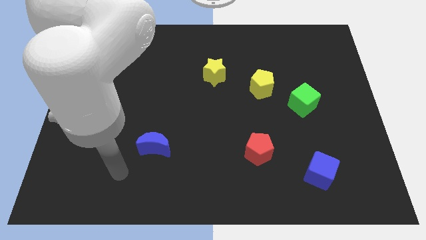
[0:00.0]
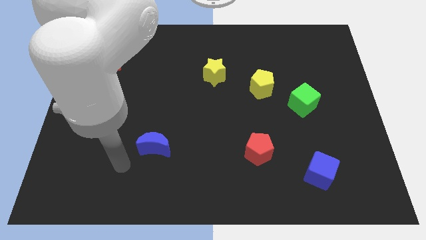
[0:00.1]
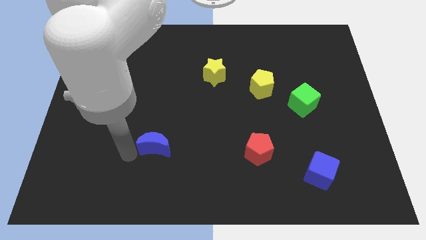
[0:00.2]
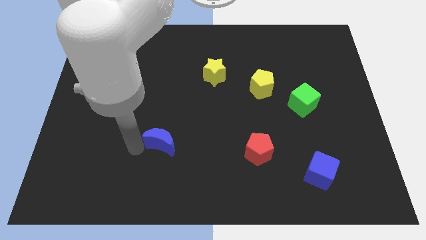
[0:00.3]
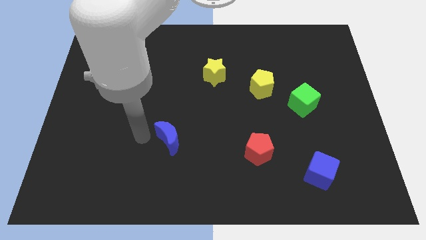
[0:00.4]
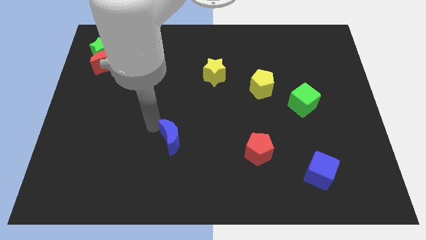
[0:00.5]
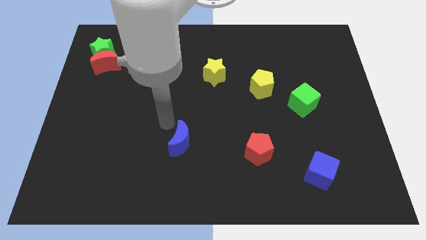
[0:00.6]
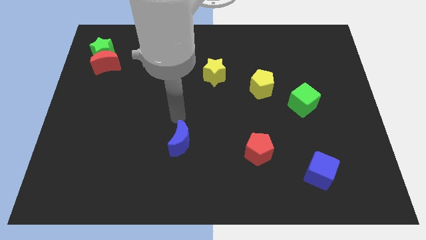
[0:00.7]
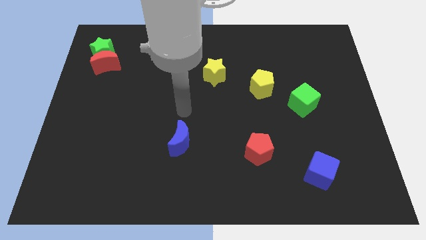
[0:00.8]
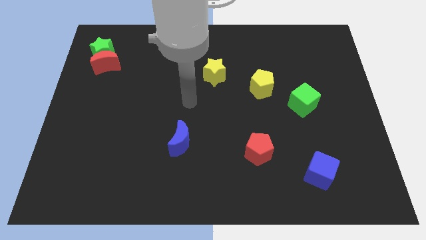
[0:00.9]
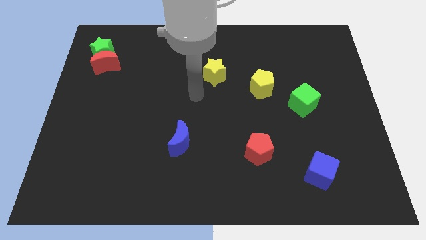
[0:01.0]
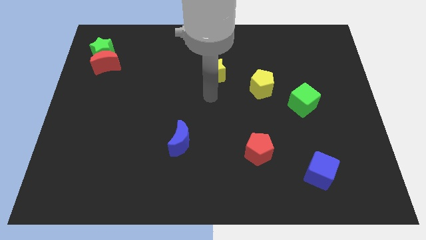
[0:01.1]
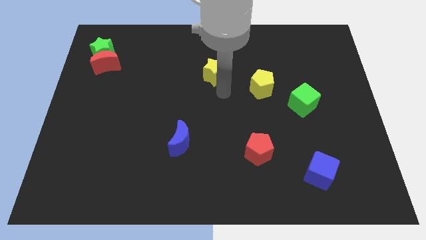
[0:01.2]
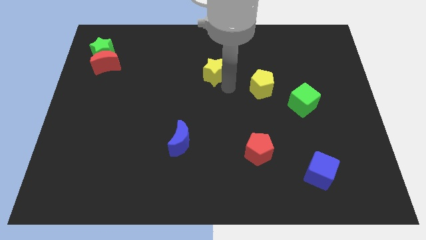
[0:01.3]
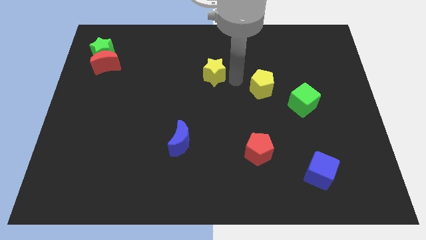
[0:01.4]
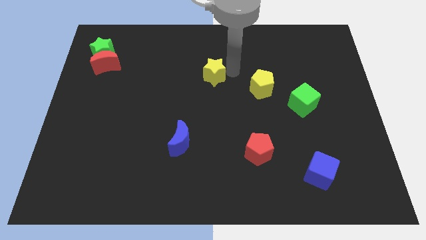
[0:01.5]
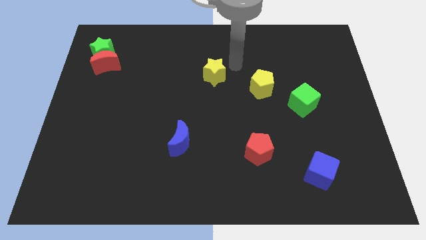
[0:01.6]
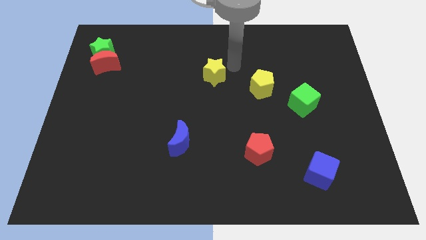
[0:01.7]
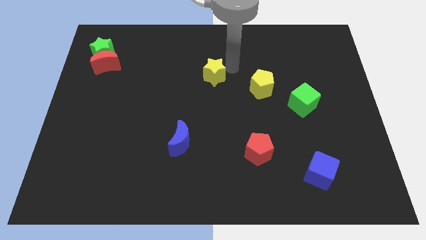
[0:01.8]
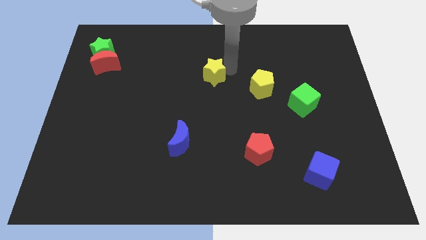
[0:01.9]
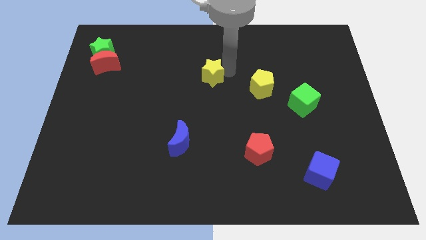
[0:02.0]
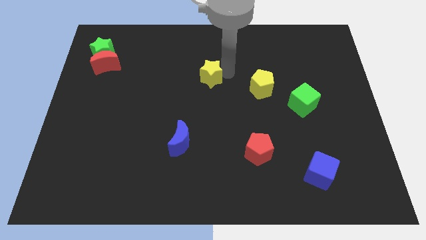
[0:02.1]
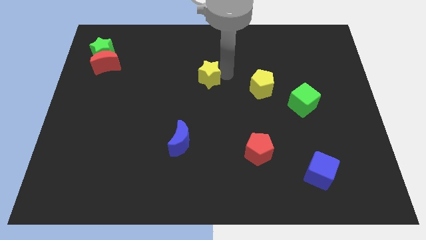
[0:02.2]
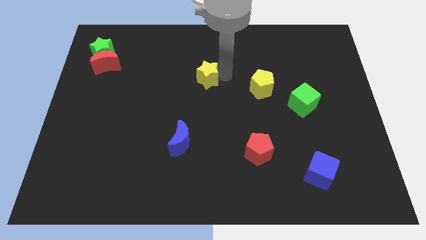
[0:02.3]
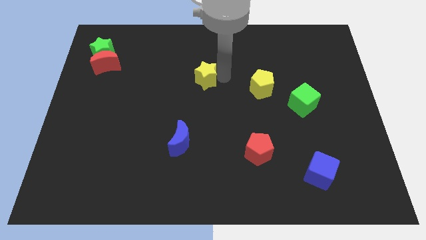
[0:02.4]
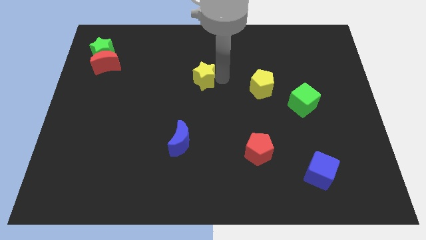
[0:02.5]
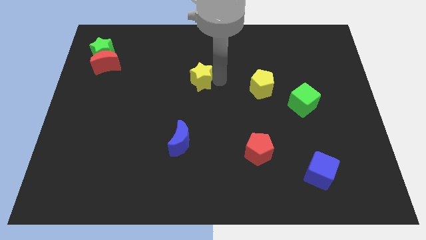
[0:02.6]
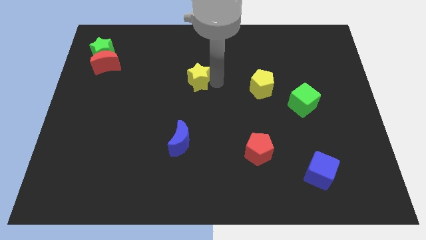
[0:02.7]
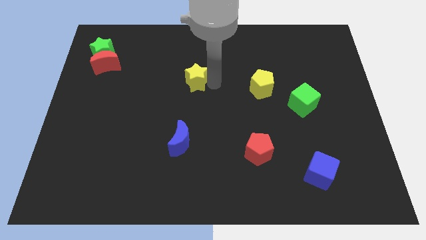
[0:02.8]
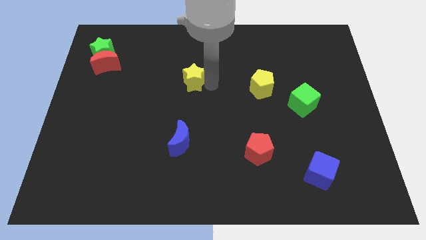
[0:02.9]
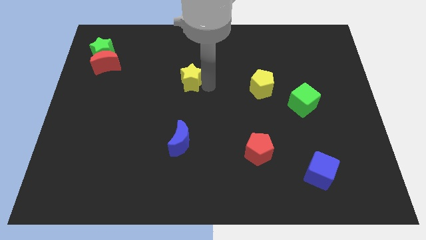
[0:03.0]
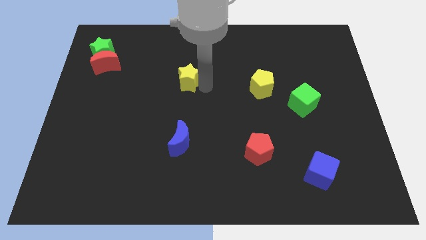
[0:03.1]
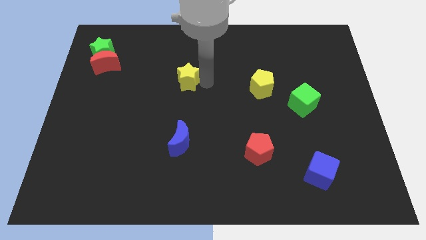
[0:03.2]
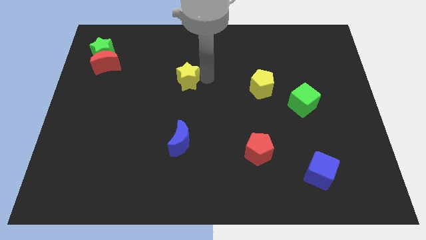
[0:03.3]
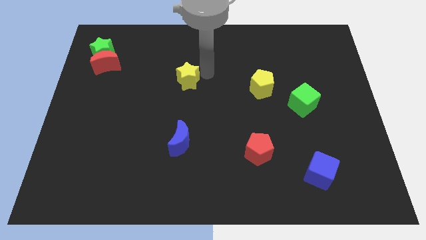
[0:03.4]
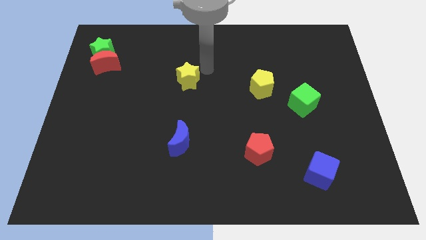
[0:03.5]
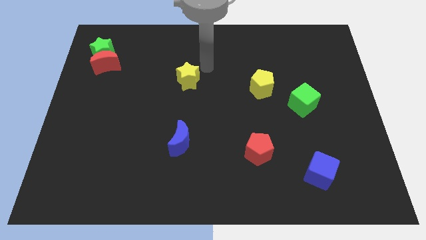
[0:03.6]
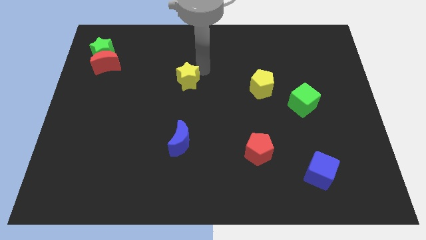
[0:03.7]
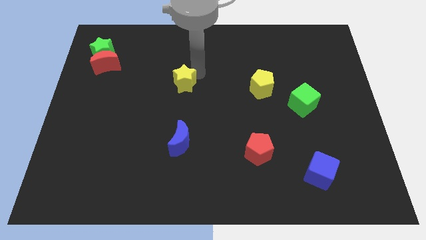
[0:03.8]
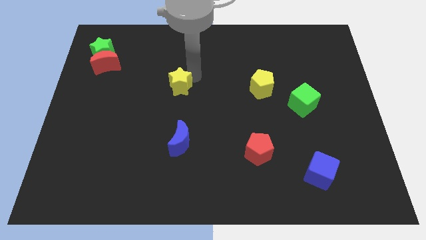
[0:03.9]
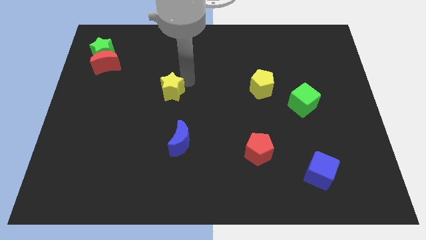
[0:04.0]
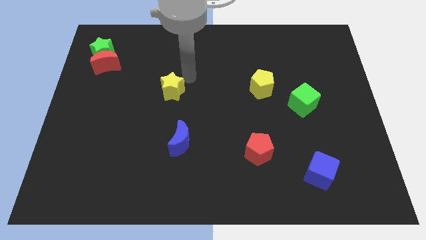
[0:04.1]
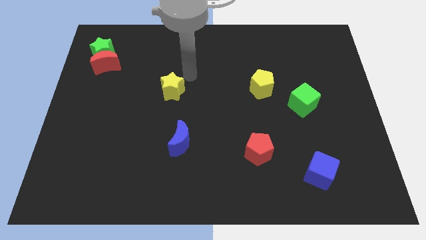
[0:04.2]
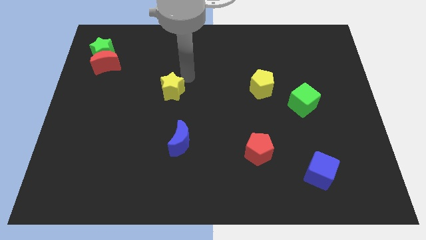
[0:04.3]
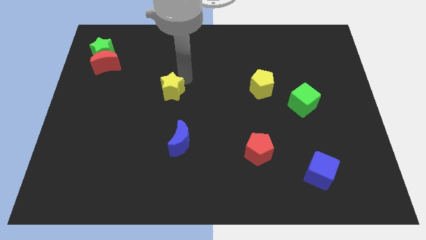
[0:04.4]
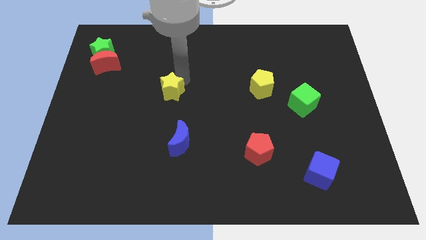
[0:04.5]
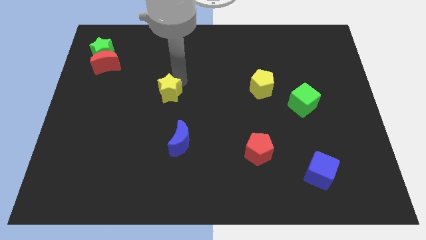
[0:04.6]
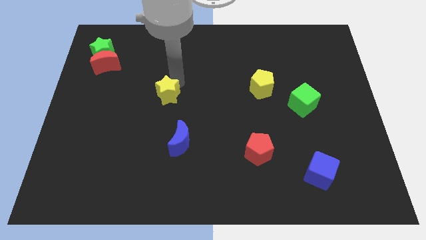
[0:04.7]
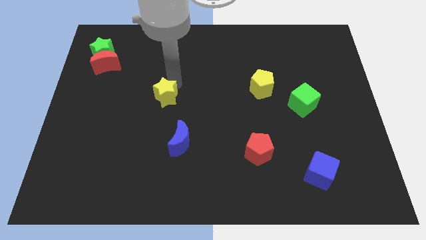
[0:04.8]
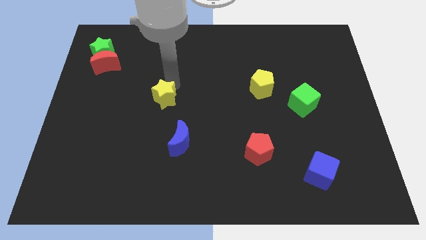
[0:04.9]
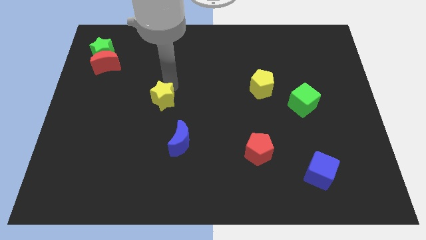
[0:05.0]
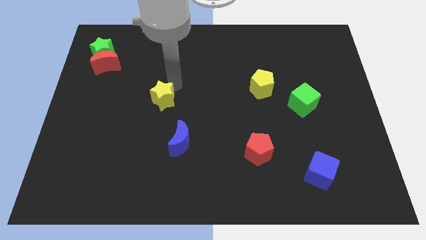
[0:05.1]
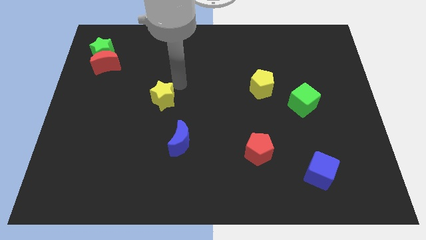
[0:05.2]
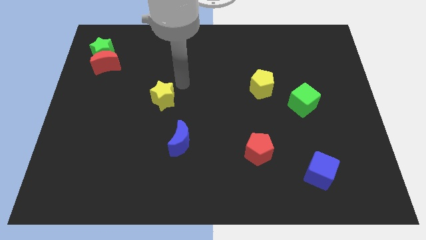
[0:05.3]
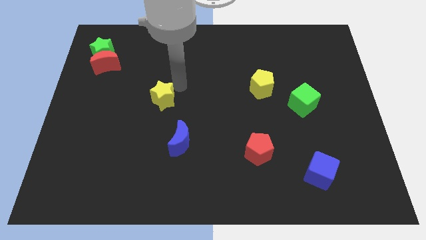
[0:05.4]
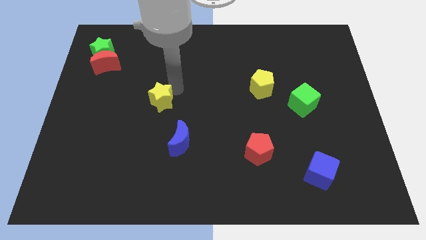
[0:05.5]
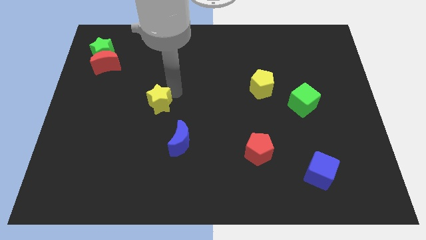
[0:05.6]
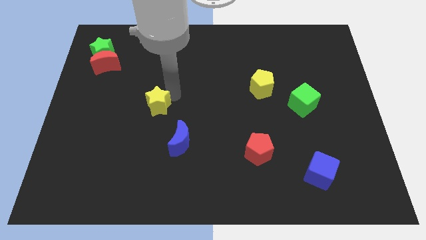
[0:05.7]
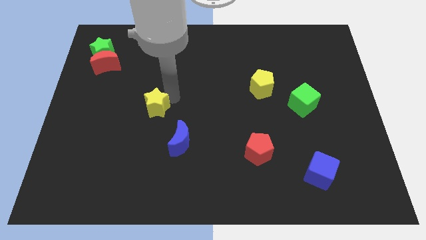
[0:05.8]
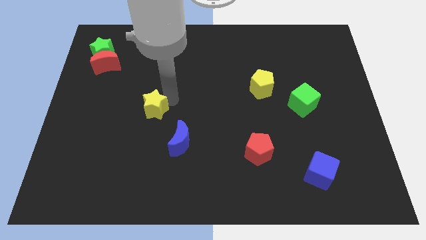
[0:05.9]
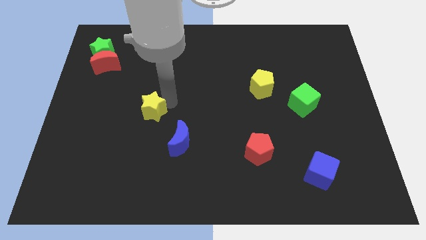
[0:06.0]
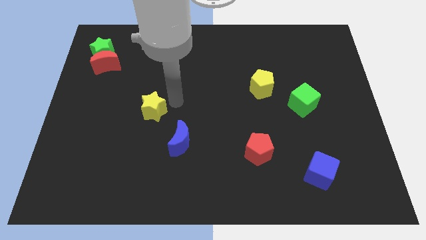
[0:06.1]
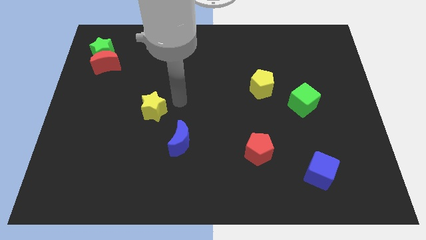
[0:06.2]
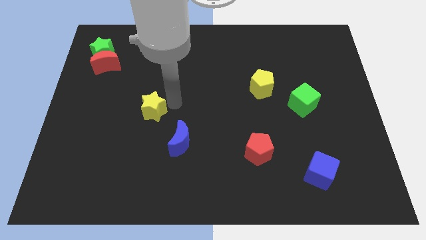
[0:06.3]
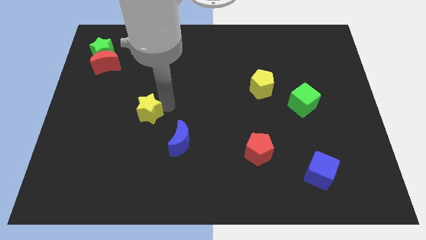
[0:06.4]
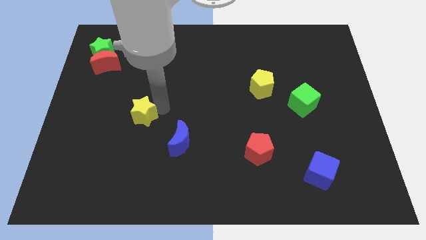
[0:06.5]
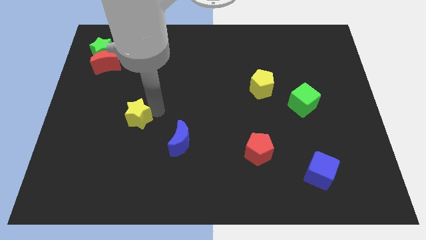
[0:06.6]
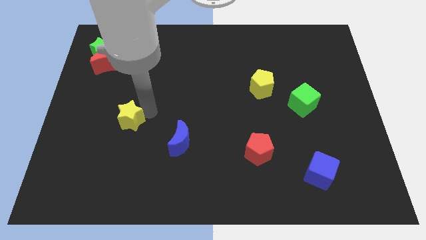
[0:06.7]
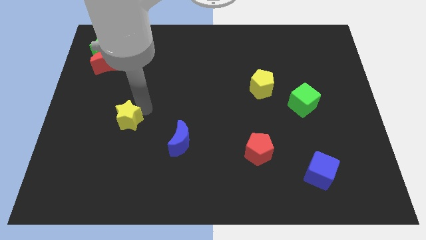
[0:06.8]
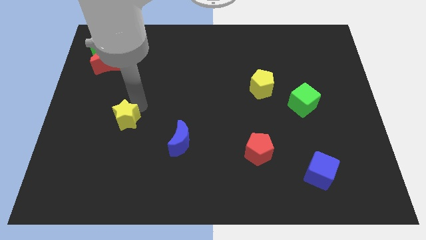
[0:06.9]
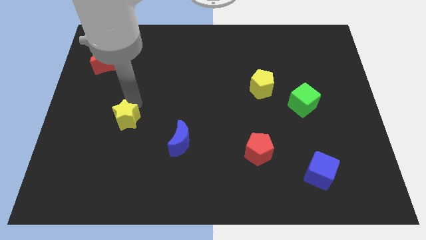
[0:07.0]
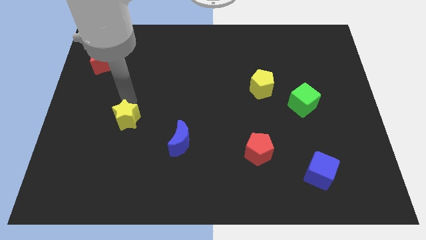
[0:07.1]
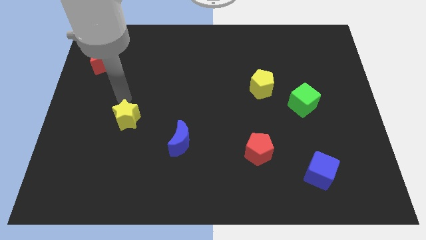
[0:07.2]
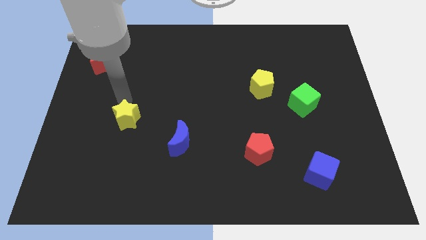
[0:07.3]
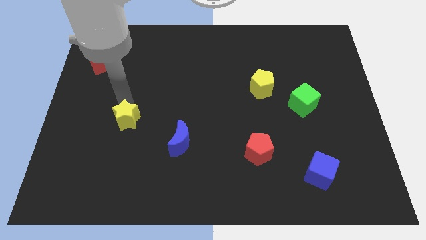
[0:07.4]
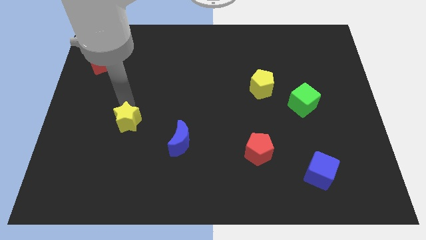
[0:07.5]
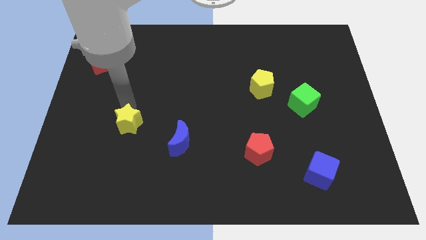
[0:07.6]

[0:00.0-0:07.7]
slide the yellow star left of the blue moon

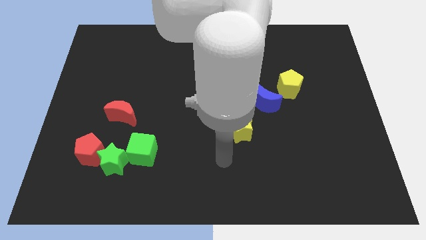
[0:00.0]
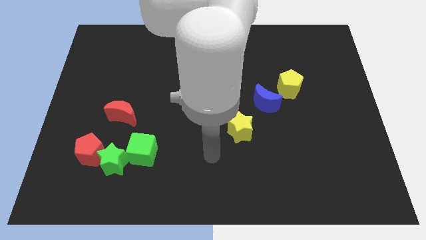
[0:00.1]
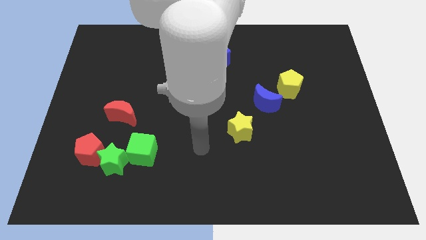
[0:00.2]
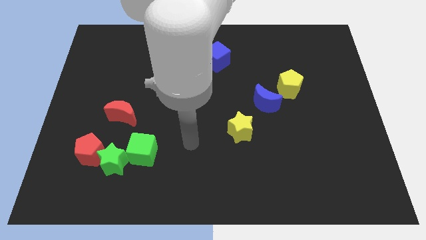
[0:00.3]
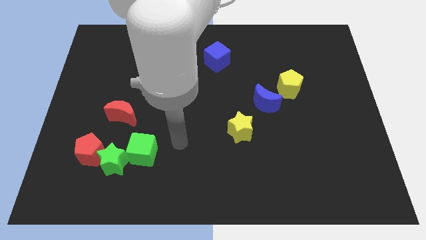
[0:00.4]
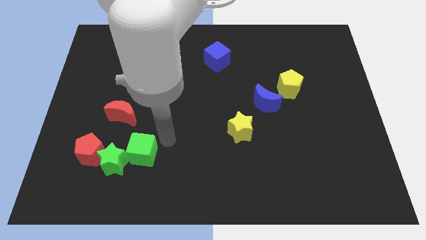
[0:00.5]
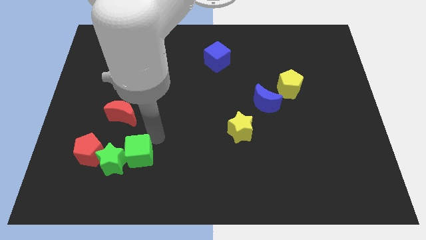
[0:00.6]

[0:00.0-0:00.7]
move the red moon to the top side of the green cube
